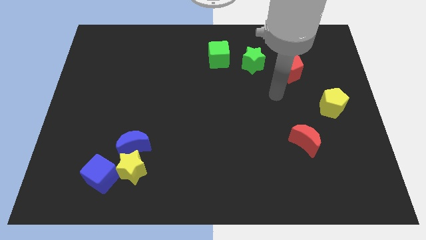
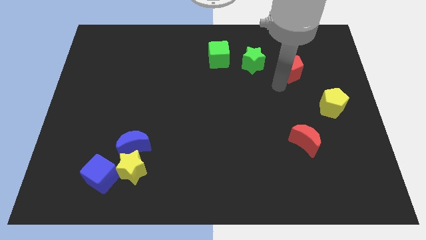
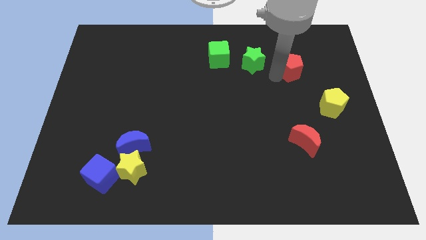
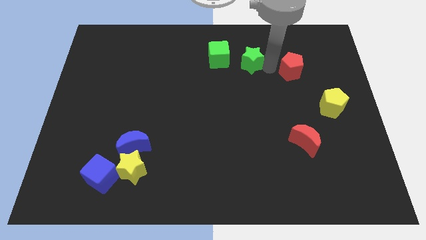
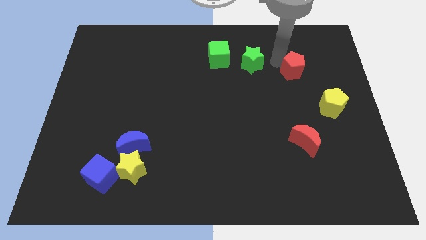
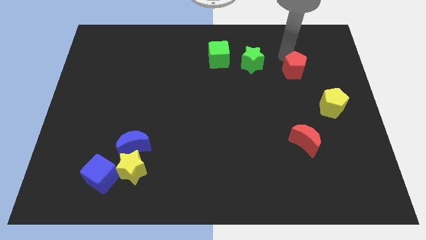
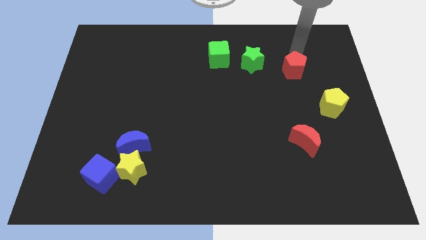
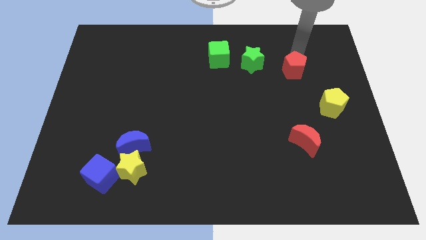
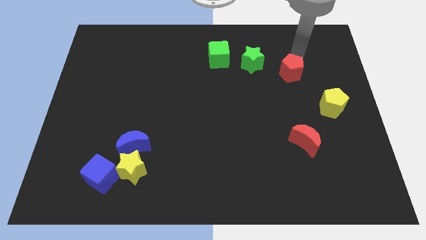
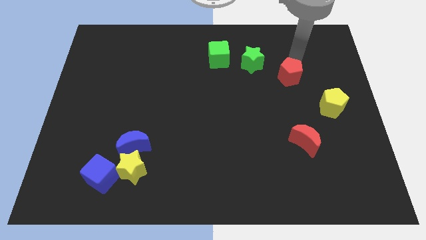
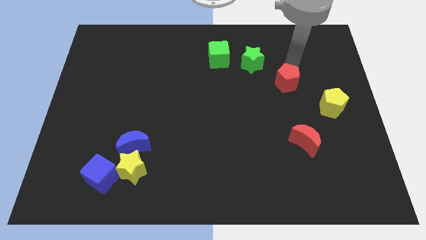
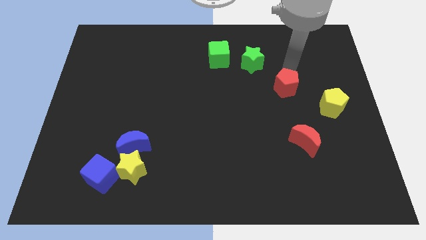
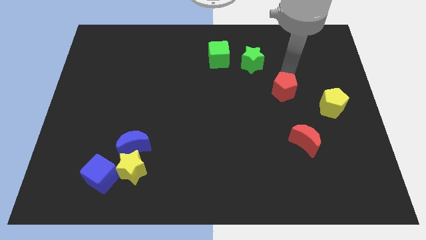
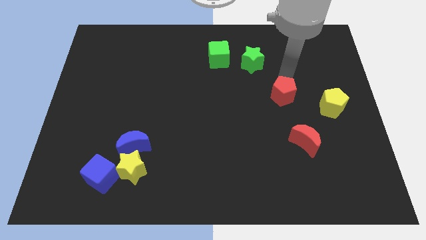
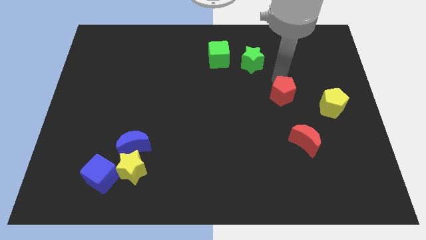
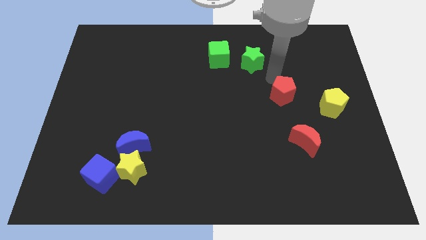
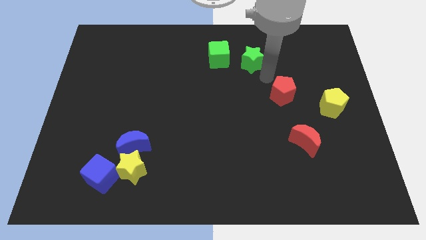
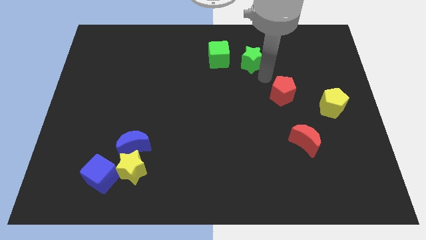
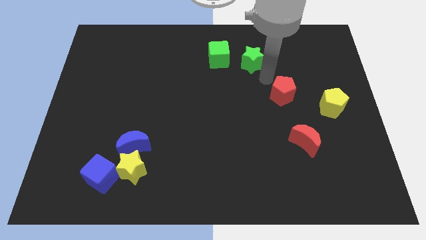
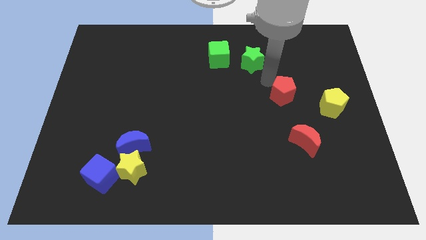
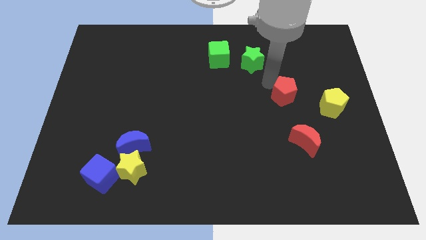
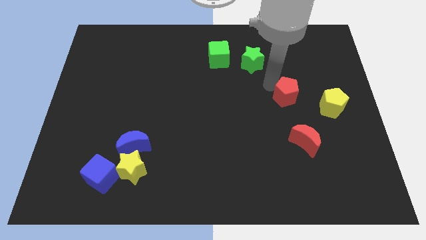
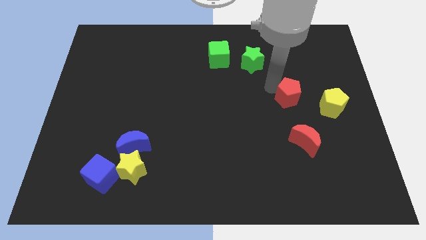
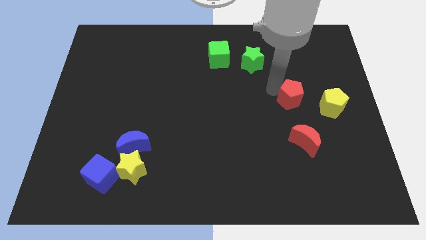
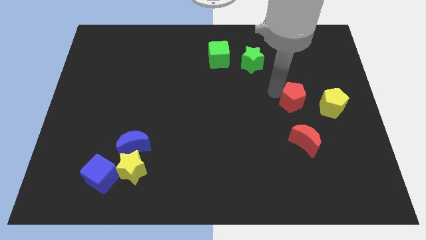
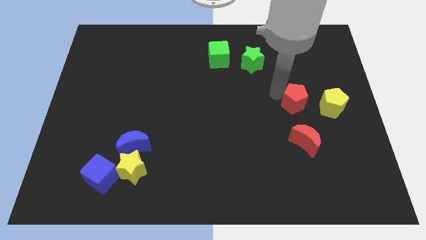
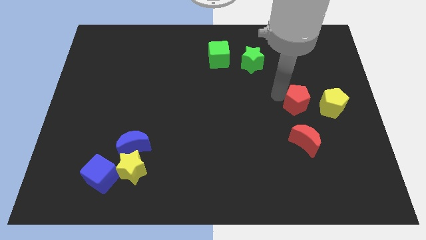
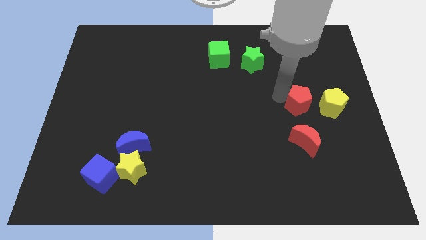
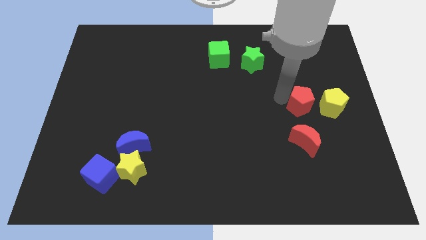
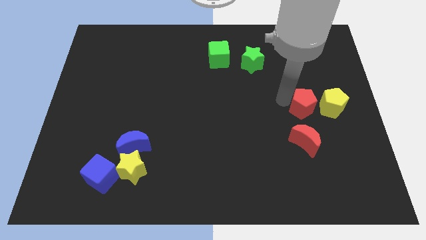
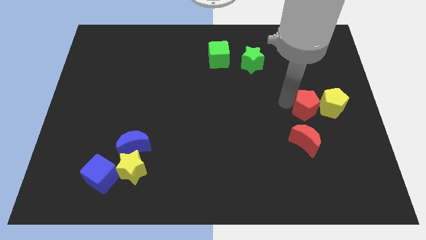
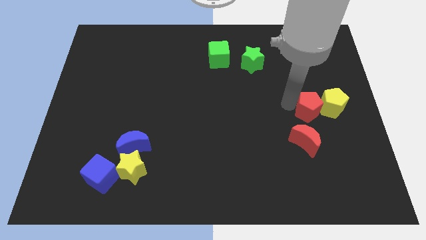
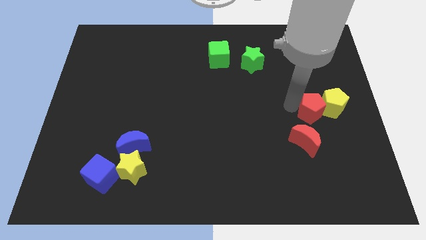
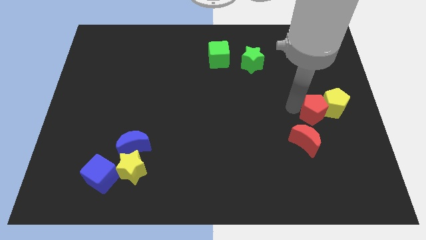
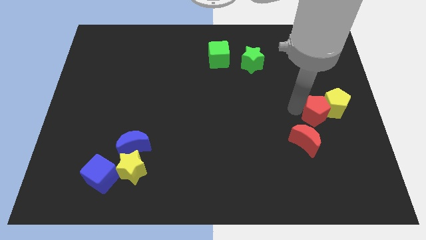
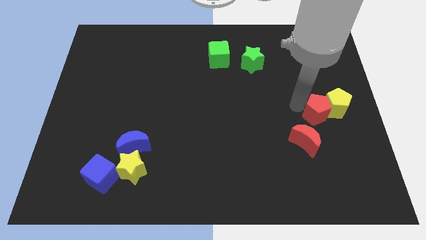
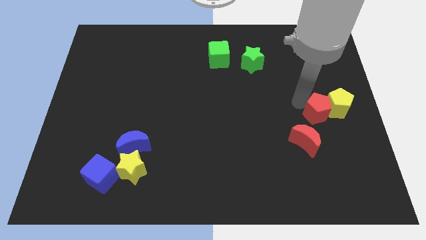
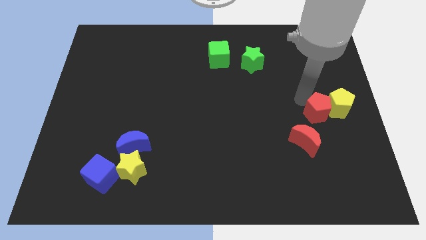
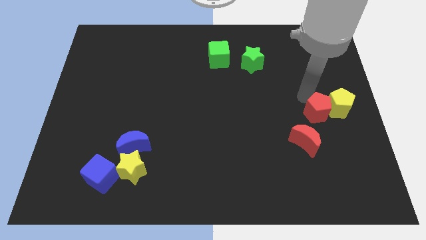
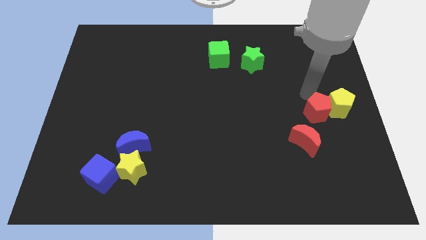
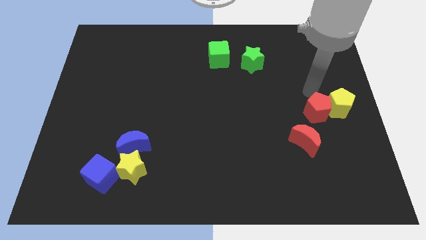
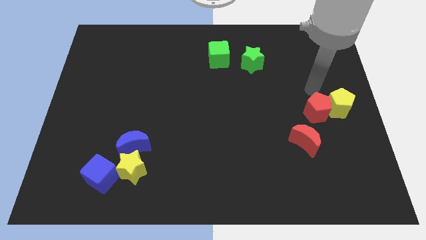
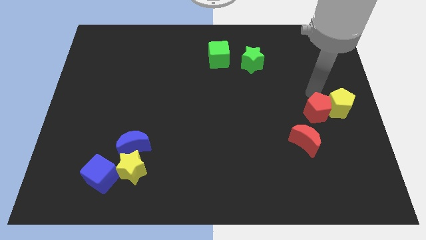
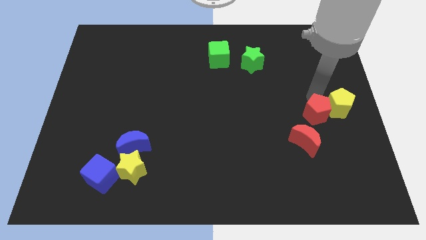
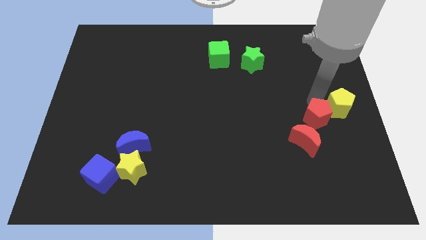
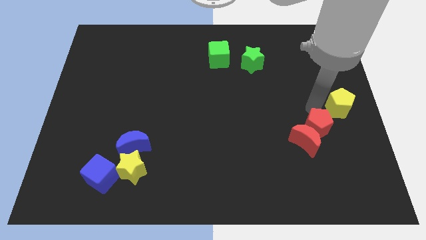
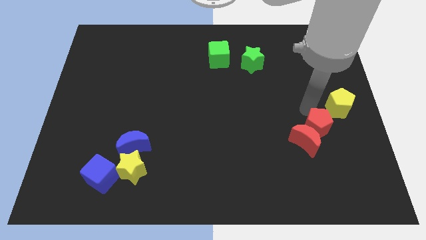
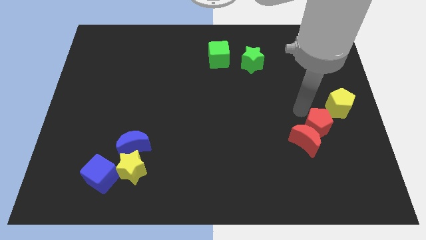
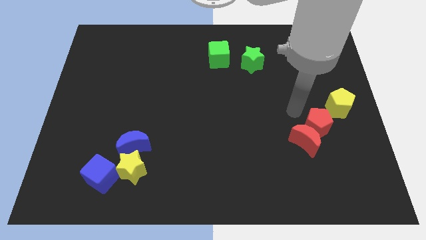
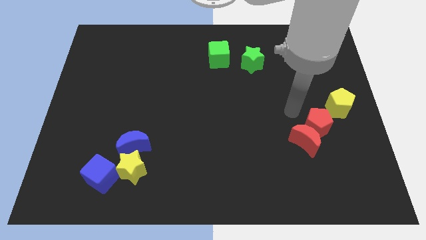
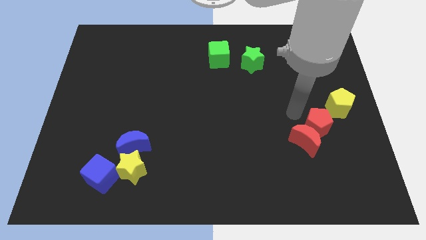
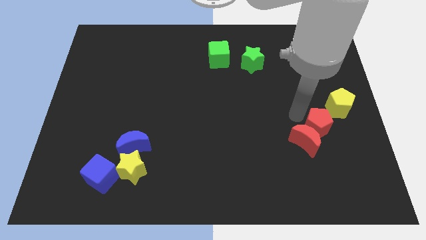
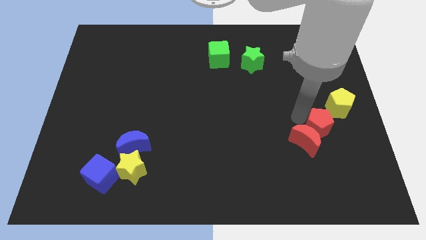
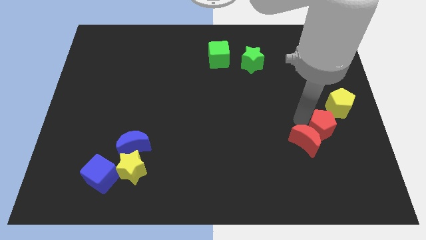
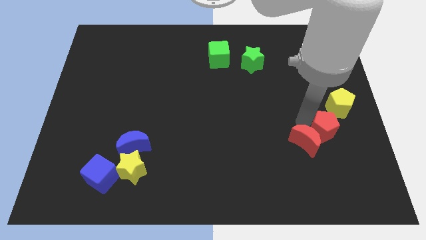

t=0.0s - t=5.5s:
push the red pentagon below the yellow pentagon

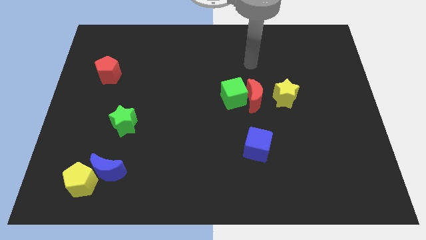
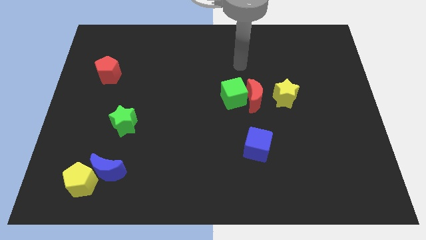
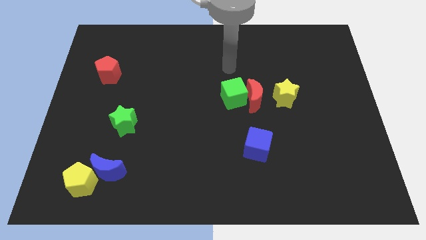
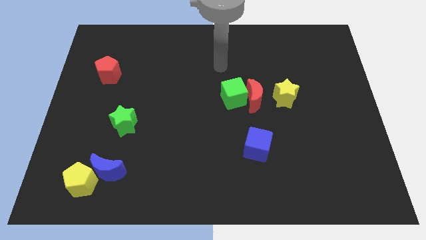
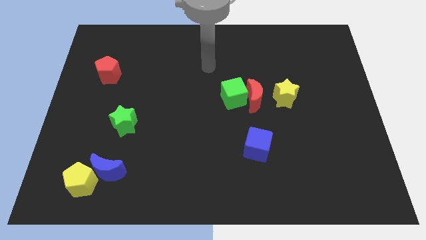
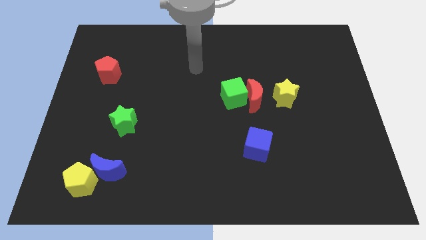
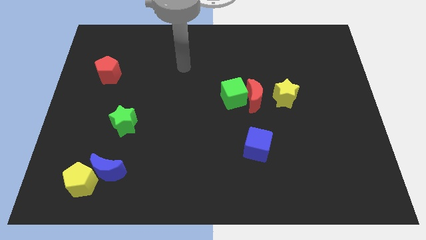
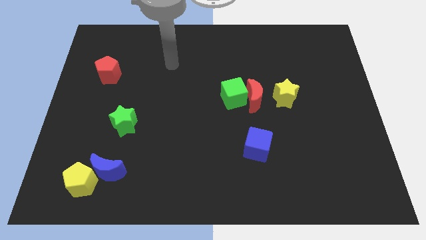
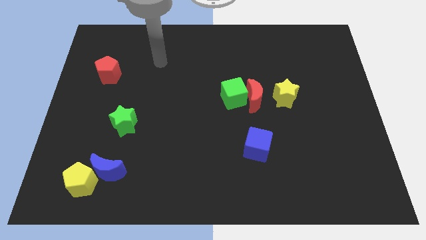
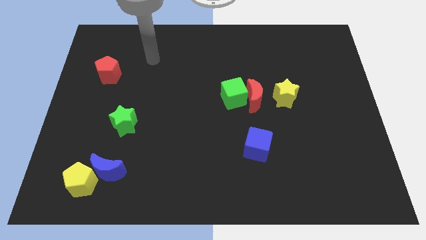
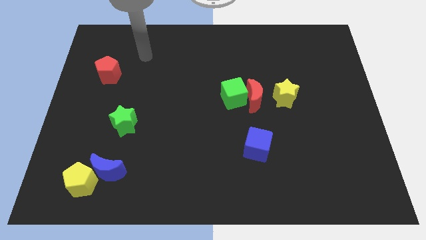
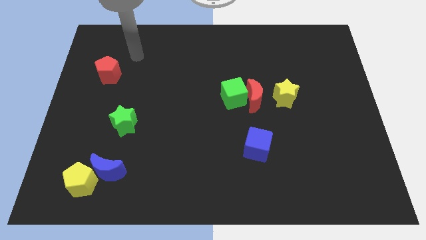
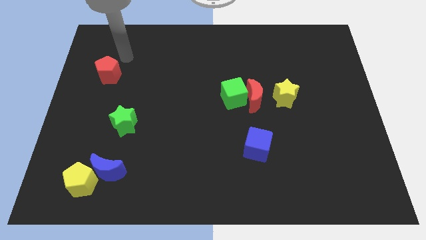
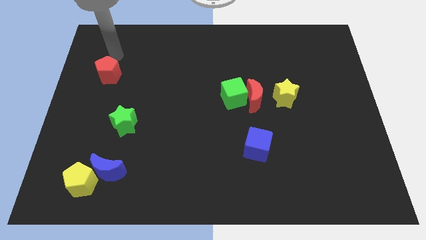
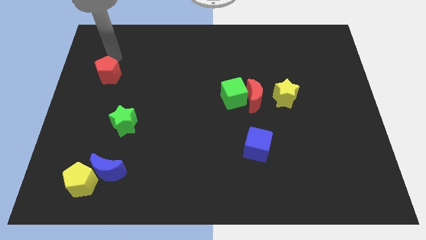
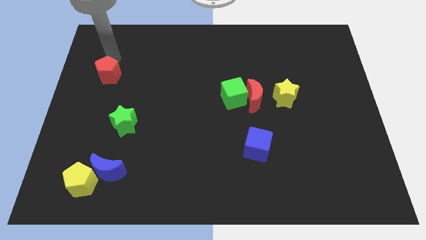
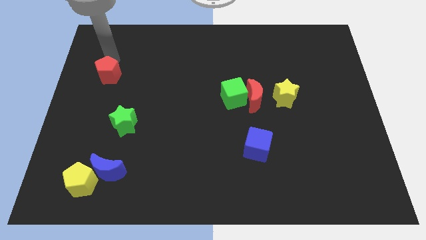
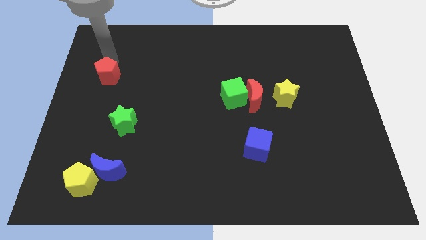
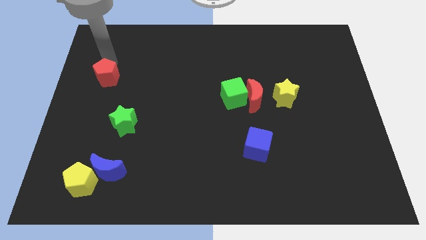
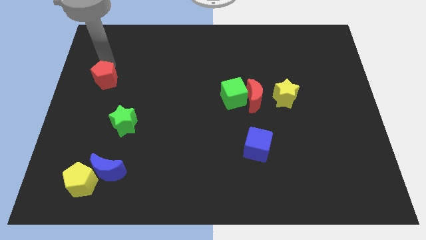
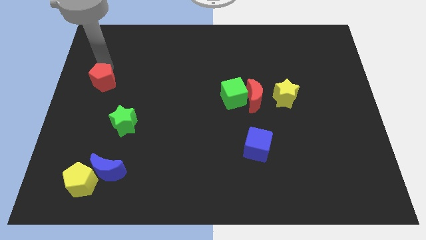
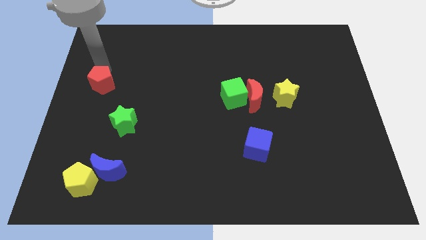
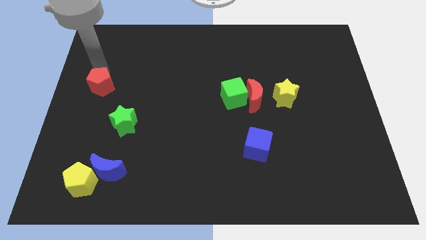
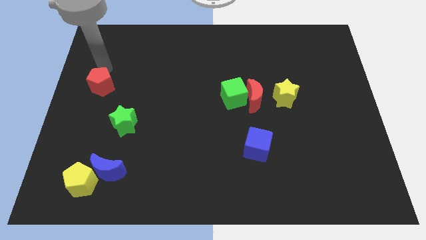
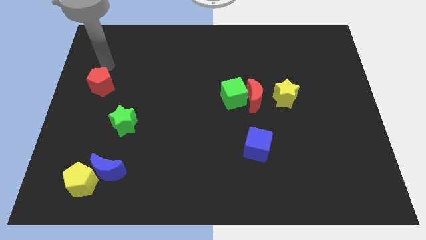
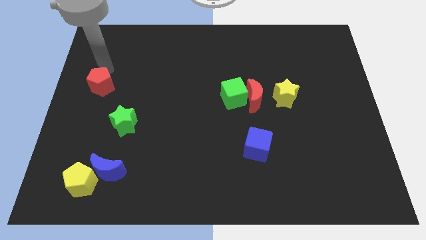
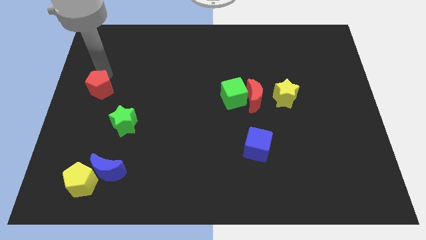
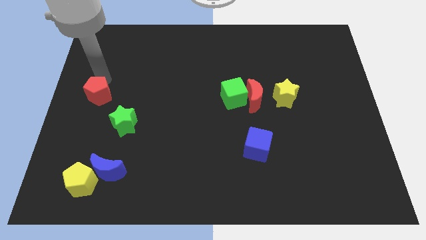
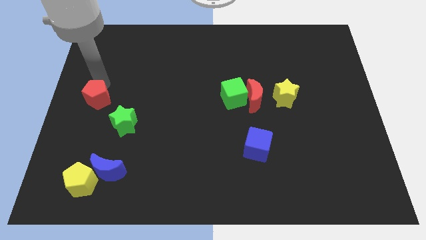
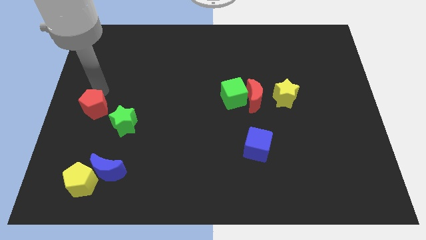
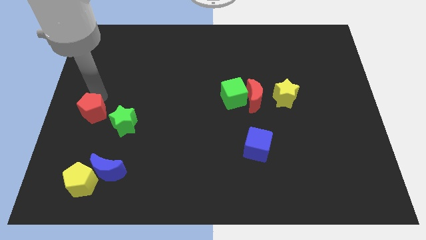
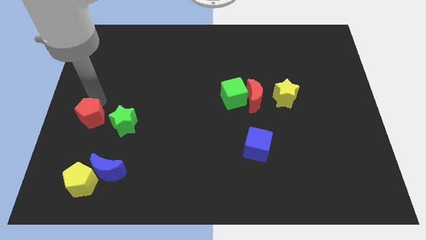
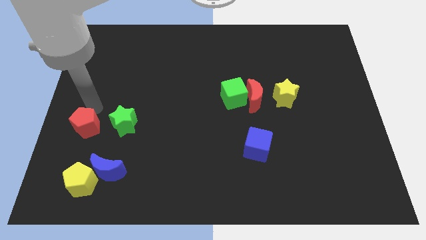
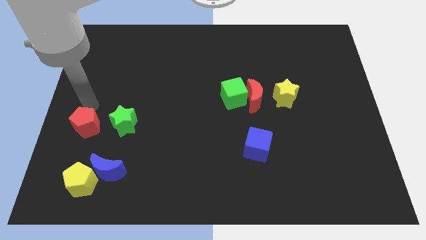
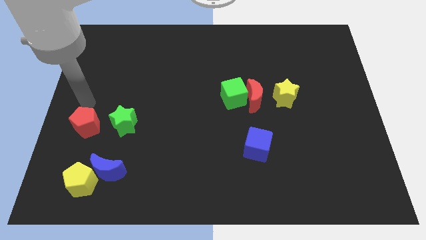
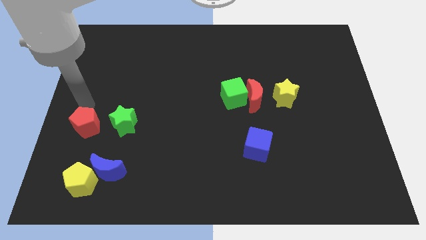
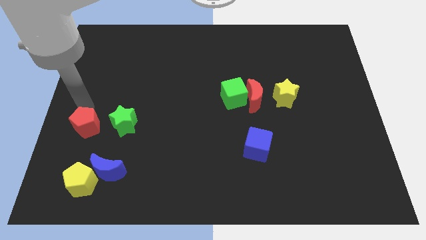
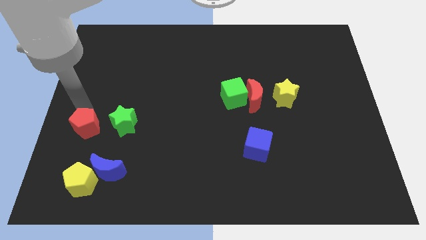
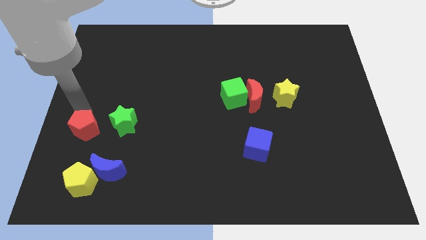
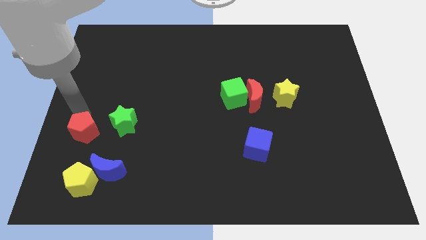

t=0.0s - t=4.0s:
slide the red pentagon to the top left of the blue moon
